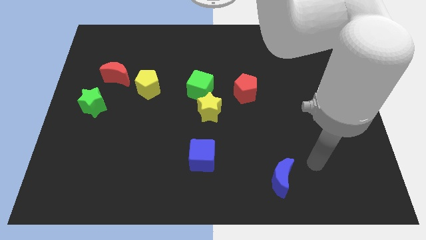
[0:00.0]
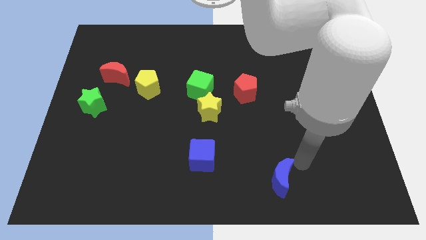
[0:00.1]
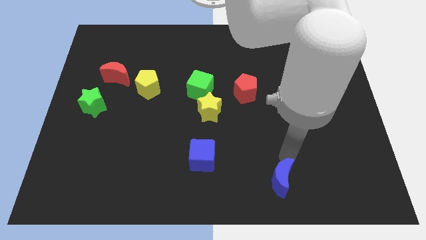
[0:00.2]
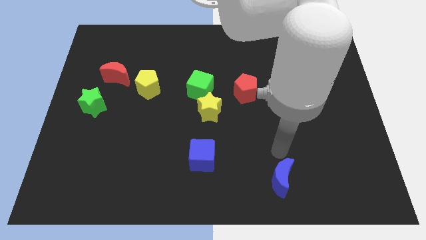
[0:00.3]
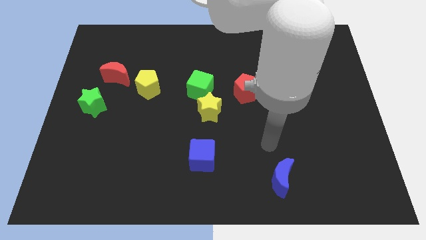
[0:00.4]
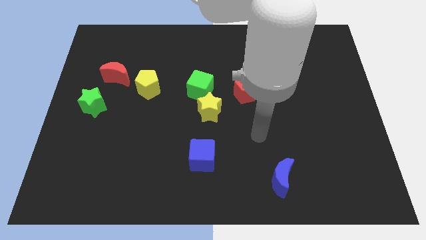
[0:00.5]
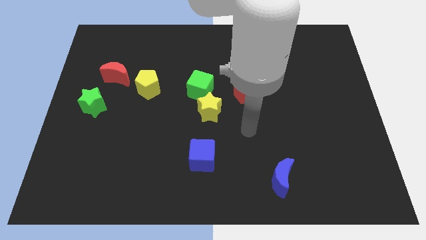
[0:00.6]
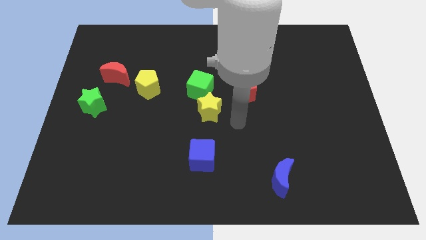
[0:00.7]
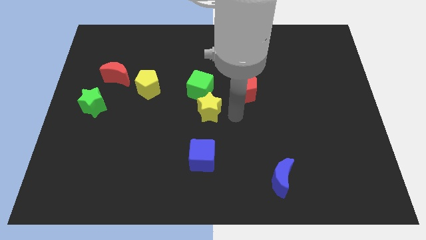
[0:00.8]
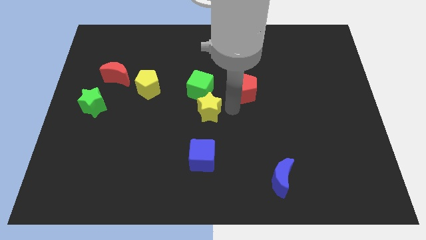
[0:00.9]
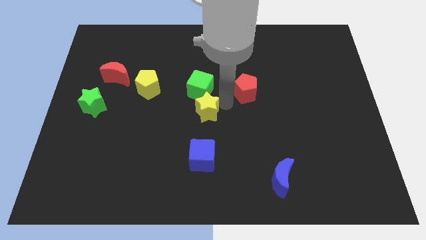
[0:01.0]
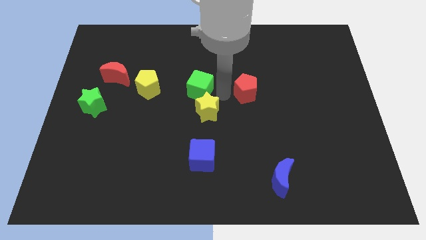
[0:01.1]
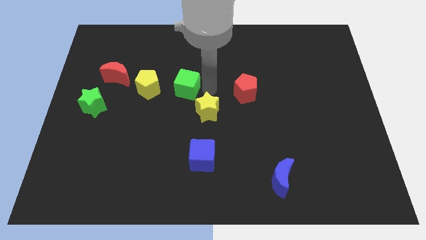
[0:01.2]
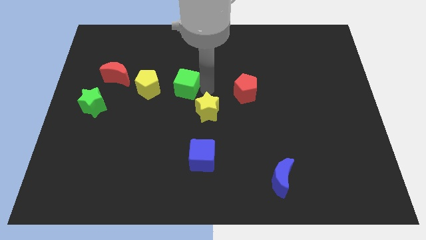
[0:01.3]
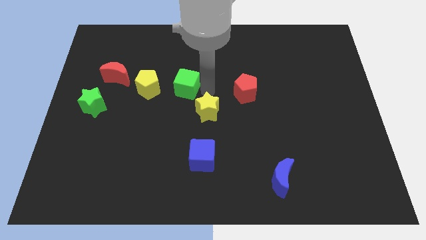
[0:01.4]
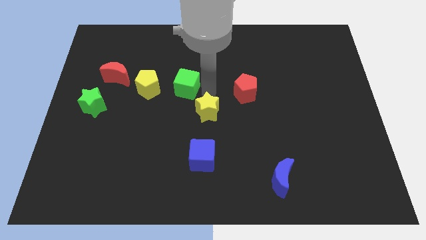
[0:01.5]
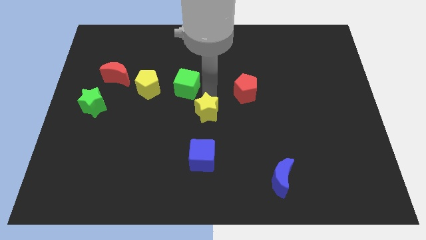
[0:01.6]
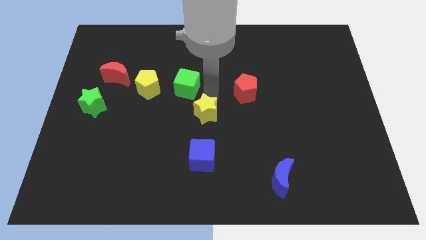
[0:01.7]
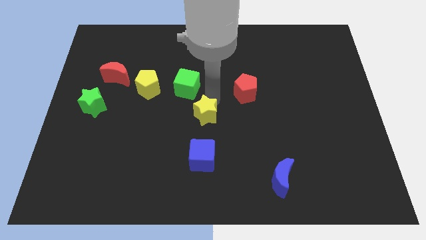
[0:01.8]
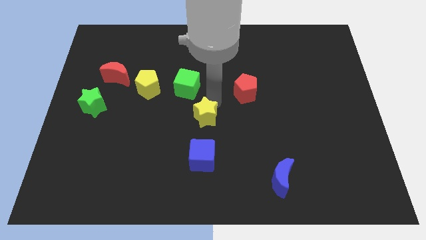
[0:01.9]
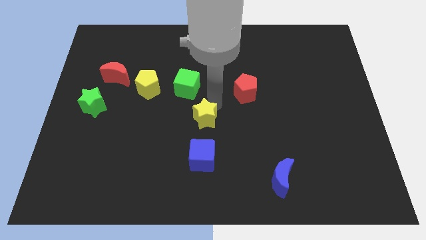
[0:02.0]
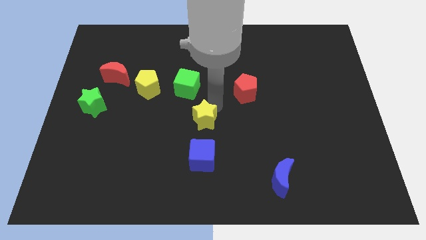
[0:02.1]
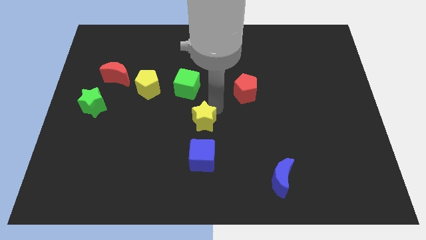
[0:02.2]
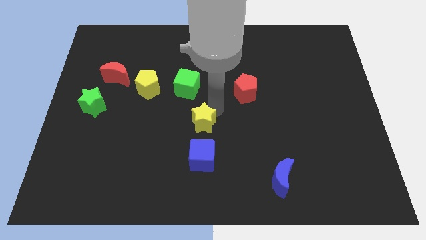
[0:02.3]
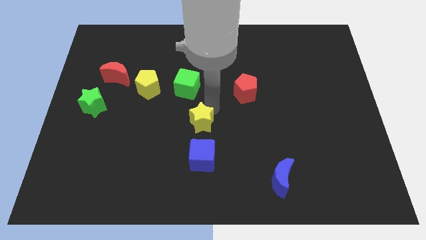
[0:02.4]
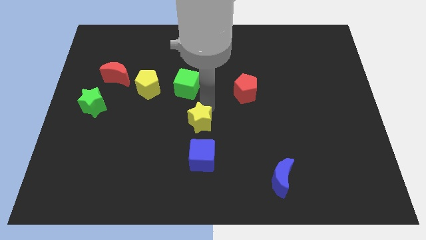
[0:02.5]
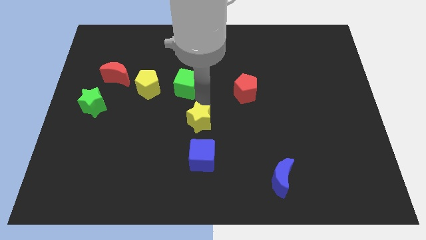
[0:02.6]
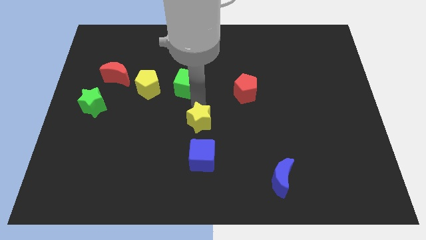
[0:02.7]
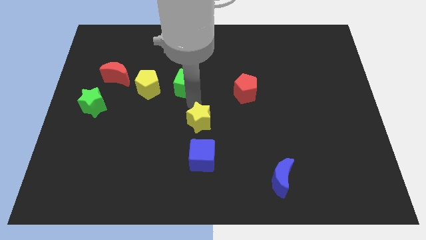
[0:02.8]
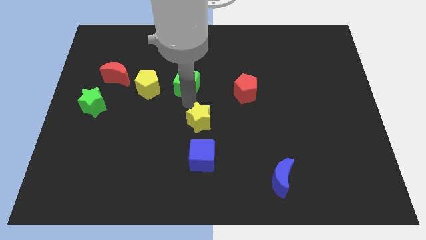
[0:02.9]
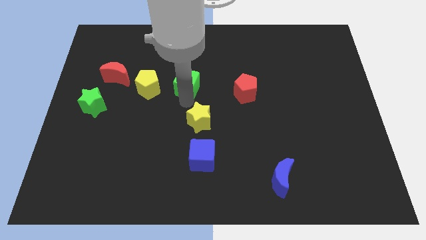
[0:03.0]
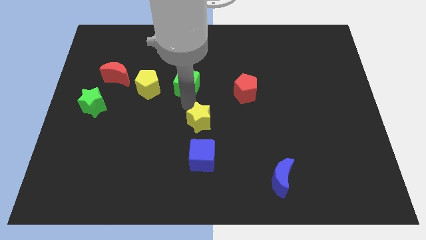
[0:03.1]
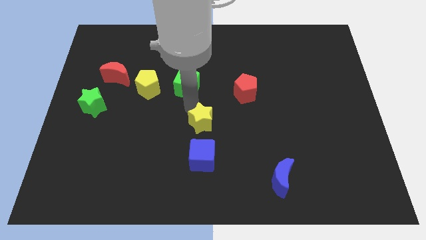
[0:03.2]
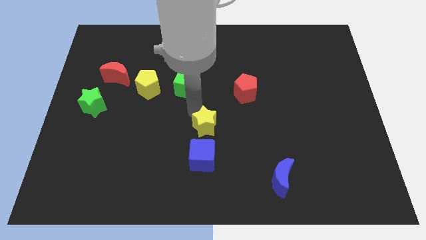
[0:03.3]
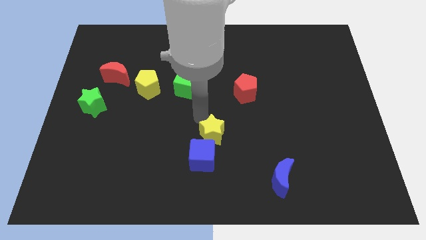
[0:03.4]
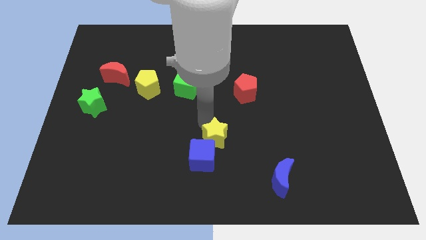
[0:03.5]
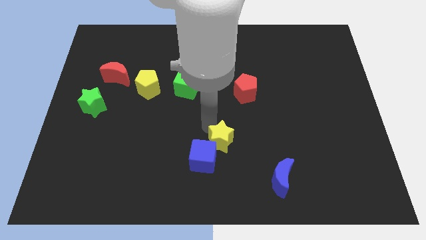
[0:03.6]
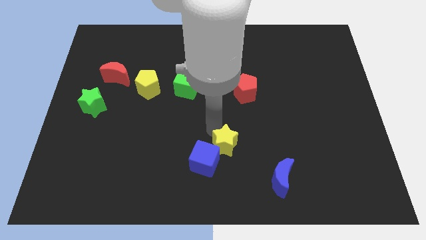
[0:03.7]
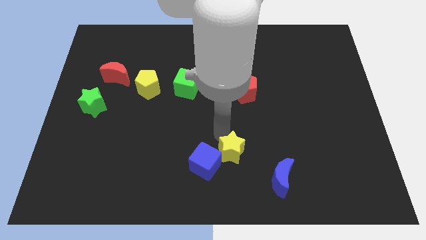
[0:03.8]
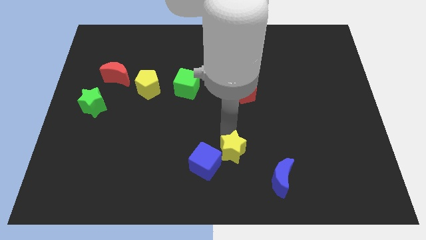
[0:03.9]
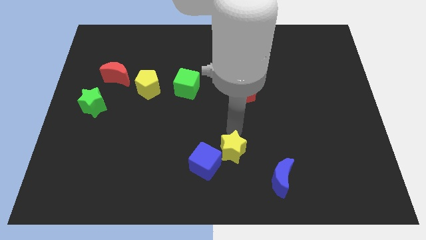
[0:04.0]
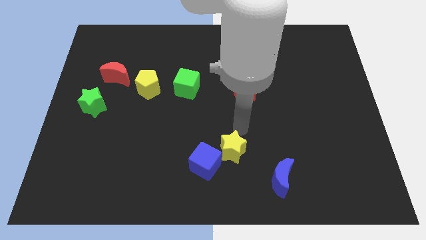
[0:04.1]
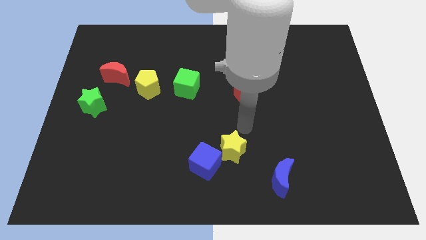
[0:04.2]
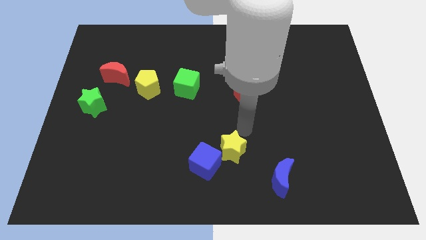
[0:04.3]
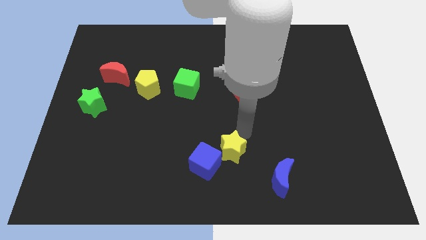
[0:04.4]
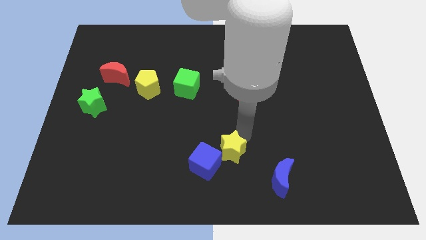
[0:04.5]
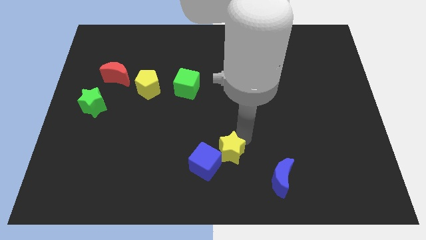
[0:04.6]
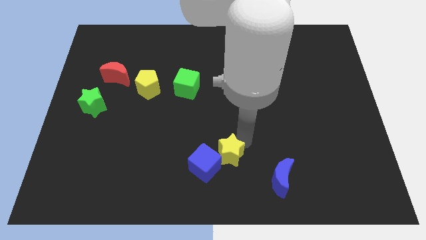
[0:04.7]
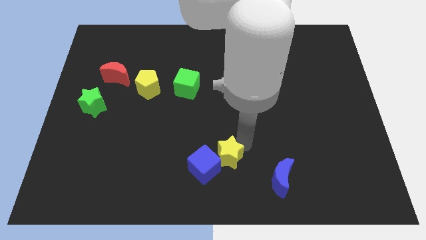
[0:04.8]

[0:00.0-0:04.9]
push the yellow star to the bottom

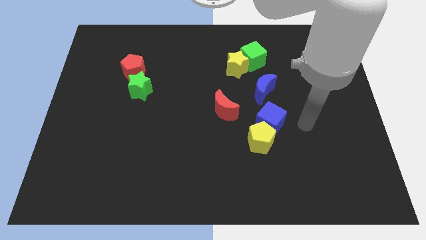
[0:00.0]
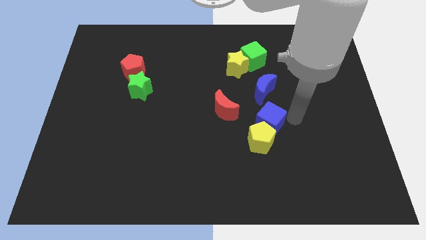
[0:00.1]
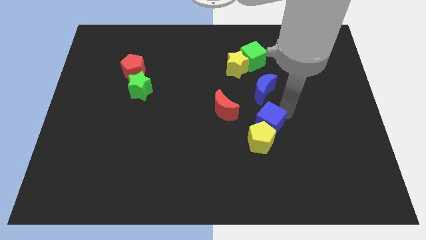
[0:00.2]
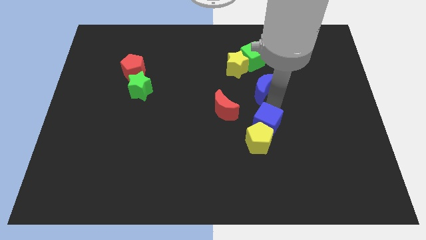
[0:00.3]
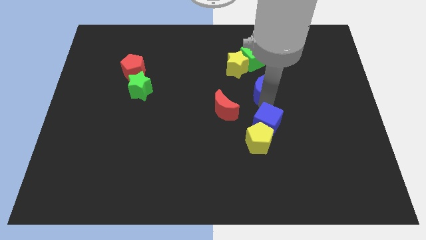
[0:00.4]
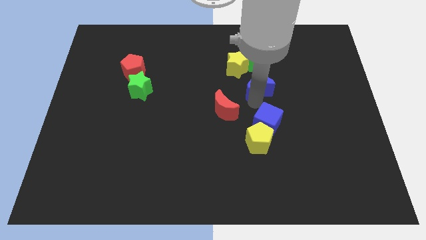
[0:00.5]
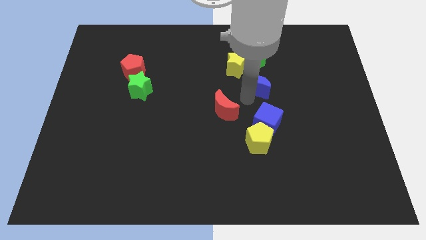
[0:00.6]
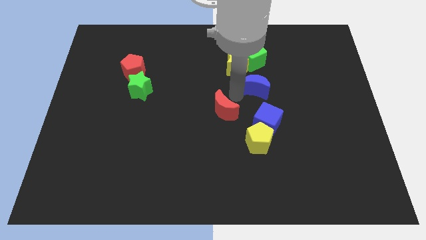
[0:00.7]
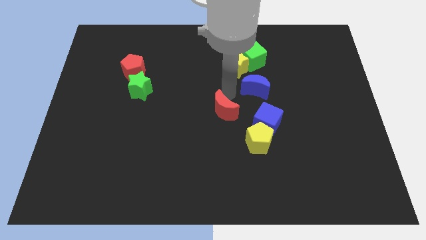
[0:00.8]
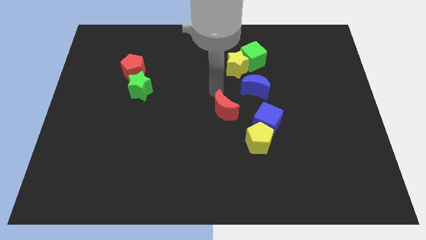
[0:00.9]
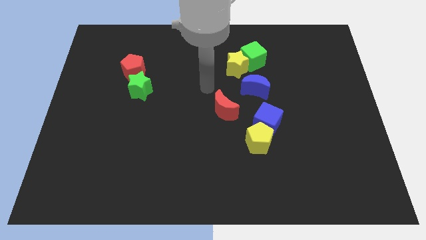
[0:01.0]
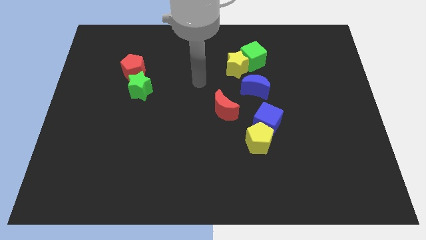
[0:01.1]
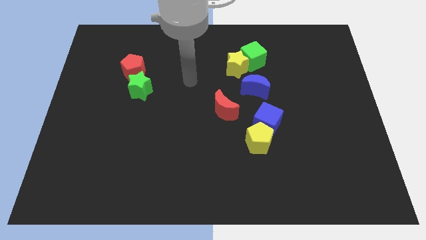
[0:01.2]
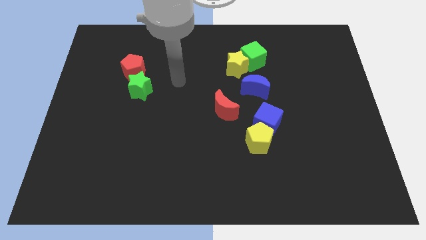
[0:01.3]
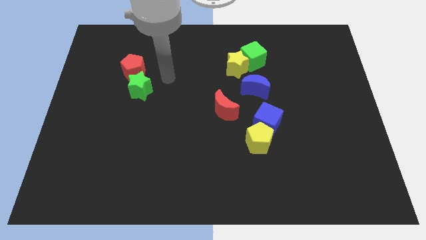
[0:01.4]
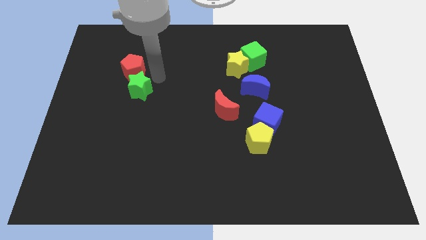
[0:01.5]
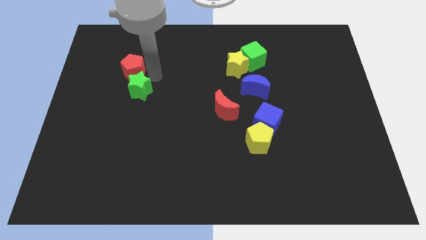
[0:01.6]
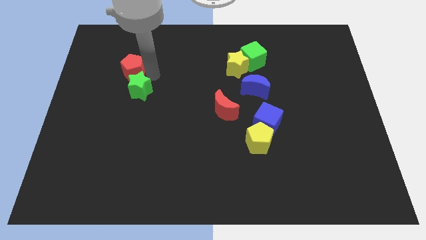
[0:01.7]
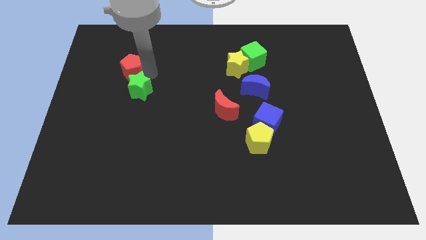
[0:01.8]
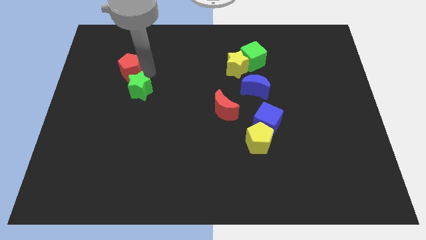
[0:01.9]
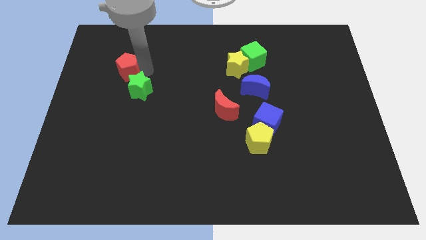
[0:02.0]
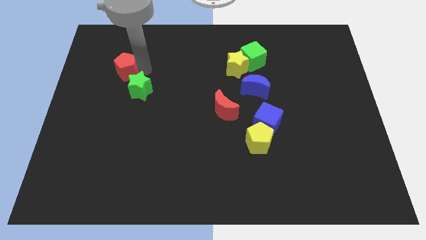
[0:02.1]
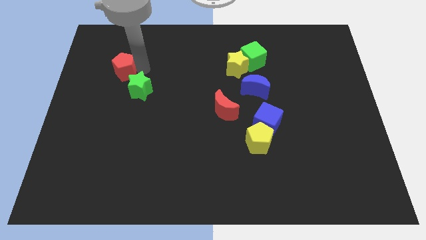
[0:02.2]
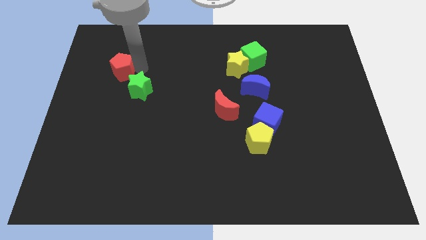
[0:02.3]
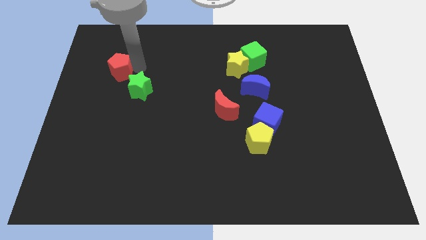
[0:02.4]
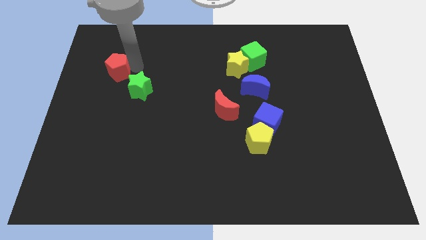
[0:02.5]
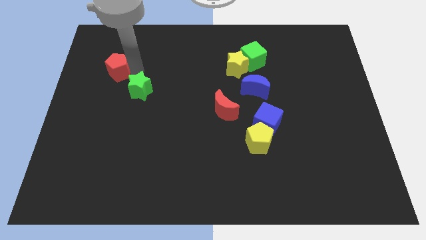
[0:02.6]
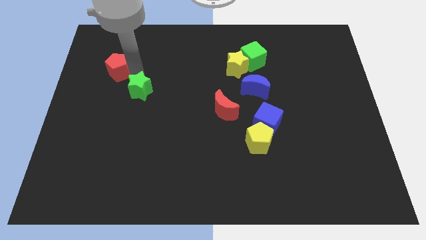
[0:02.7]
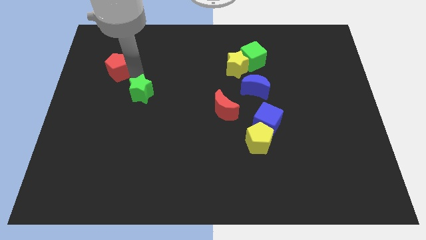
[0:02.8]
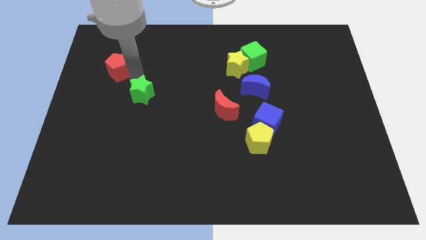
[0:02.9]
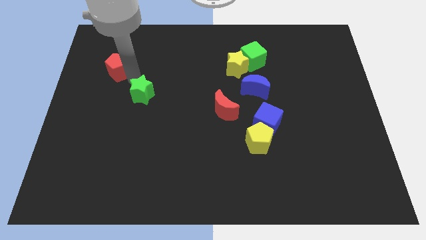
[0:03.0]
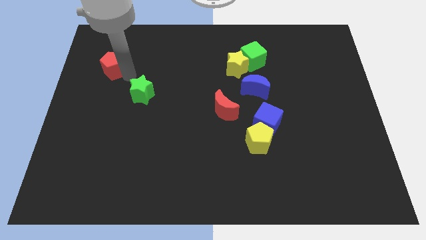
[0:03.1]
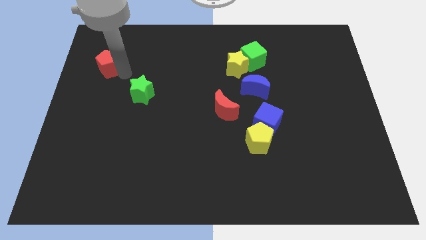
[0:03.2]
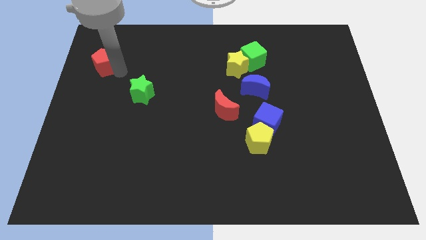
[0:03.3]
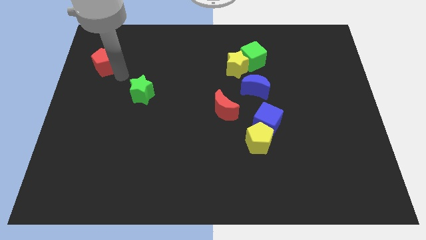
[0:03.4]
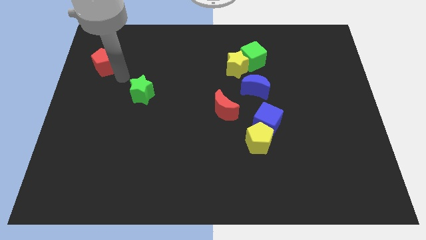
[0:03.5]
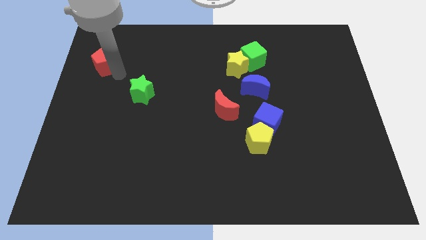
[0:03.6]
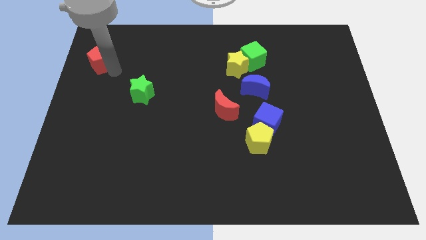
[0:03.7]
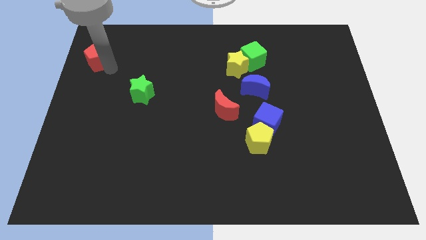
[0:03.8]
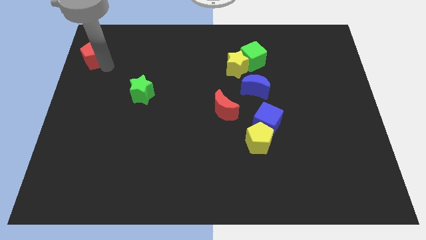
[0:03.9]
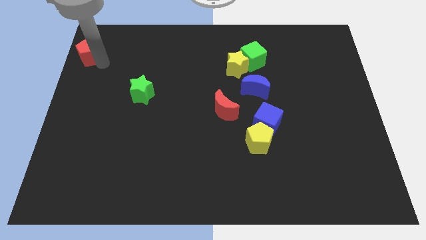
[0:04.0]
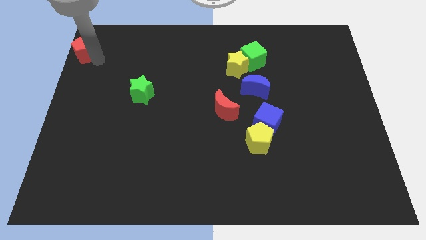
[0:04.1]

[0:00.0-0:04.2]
slide the red pentagon to the top left of the board
